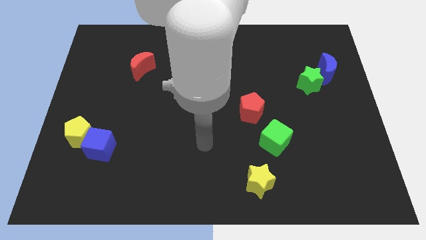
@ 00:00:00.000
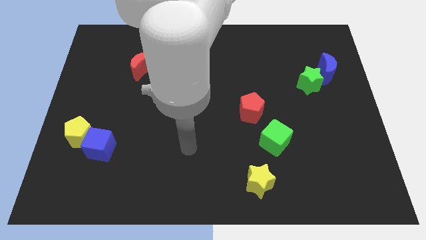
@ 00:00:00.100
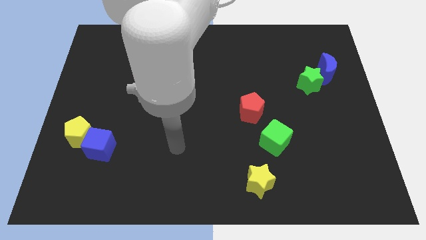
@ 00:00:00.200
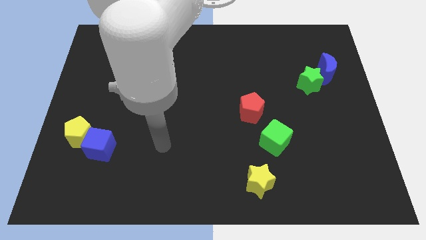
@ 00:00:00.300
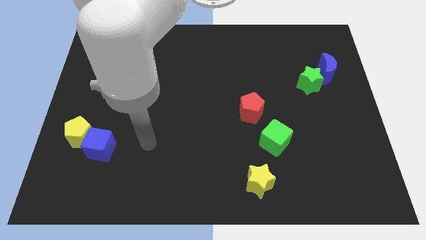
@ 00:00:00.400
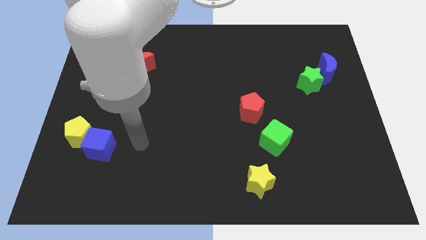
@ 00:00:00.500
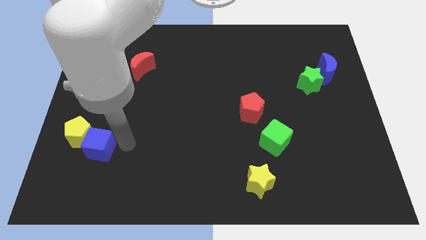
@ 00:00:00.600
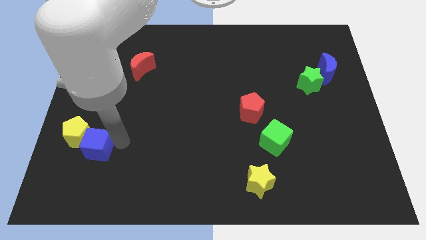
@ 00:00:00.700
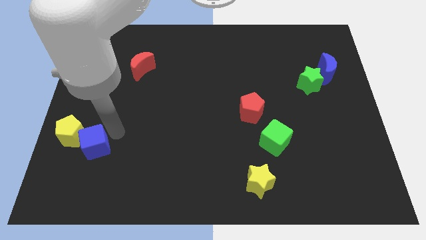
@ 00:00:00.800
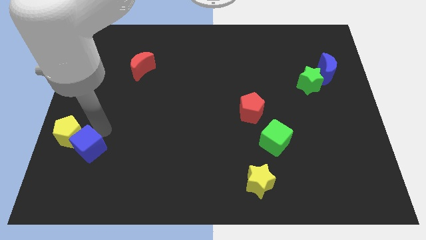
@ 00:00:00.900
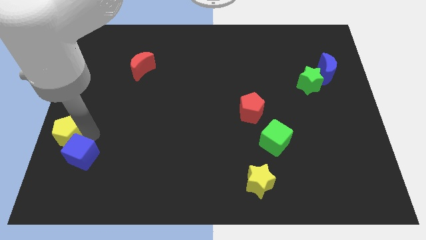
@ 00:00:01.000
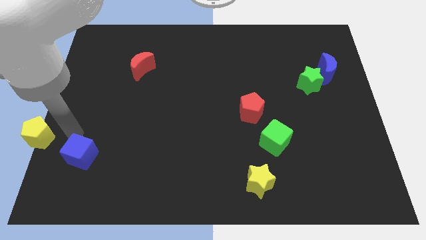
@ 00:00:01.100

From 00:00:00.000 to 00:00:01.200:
move the blue cube away from the yellow pentagon

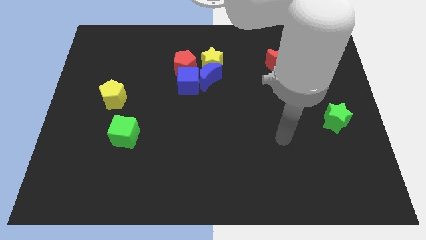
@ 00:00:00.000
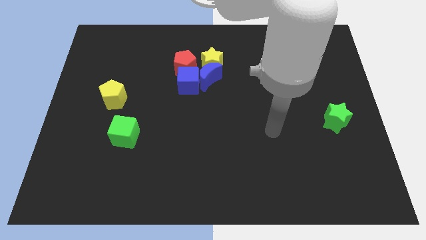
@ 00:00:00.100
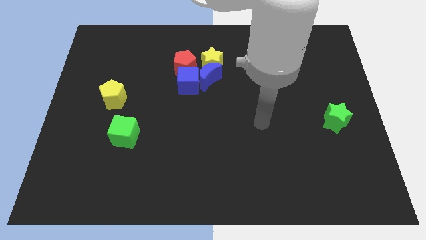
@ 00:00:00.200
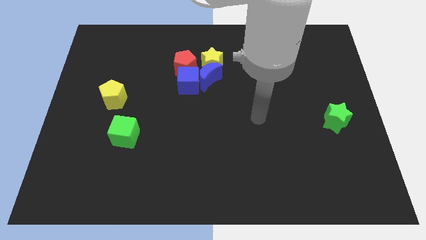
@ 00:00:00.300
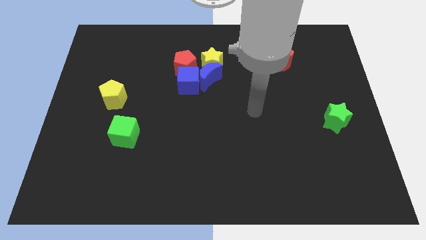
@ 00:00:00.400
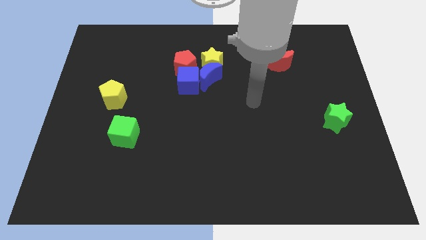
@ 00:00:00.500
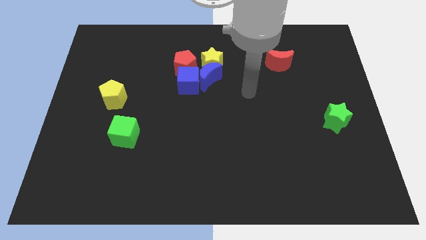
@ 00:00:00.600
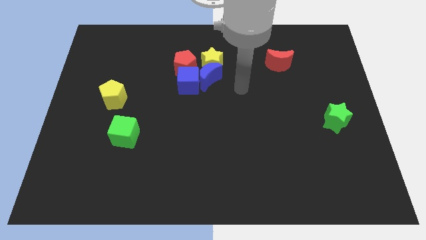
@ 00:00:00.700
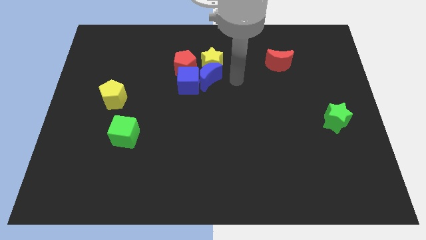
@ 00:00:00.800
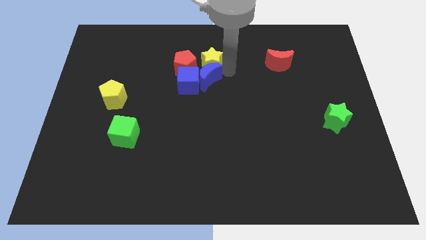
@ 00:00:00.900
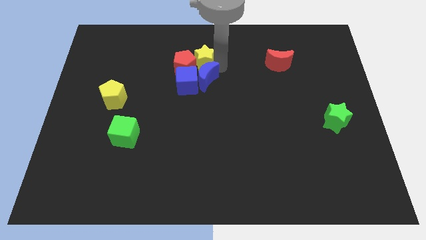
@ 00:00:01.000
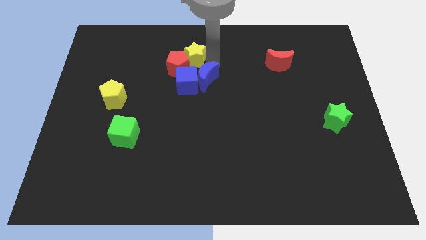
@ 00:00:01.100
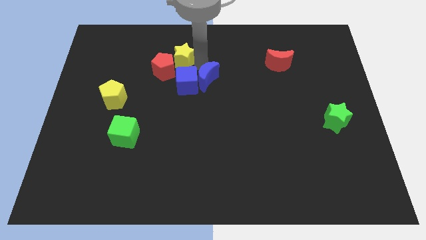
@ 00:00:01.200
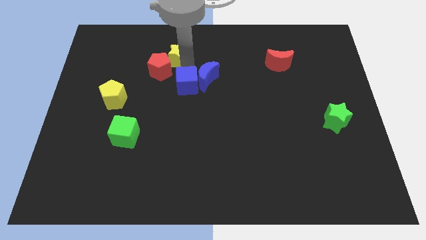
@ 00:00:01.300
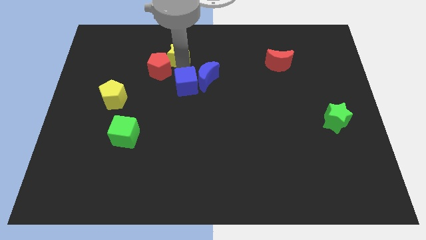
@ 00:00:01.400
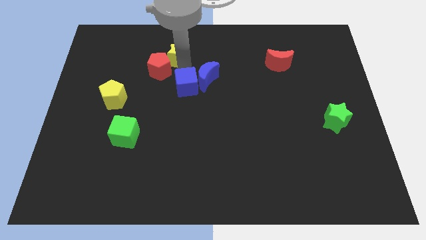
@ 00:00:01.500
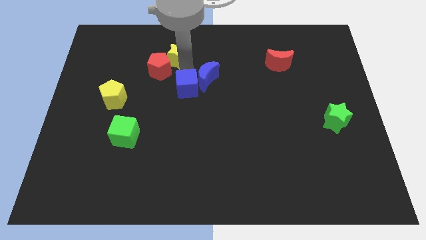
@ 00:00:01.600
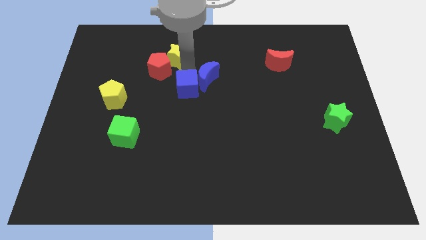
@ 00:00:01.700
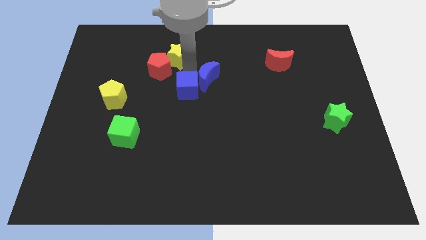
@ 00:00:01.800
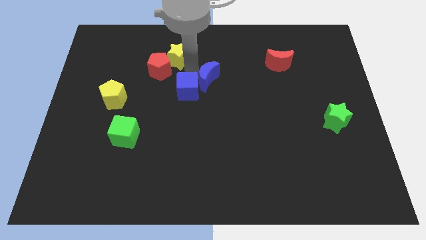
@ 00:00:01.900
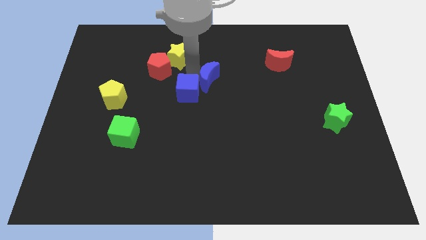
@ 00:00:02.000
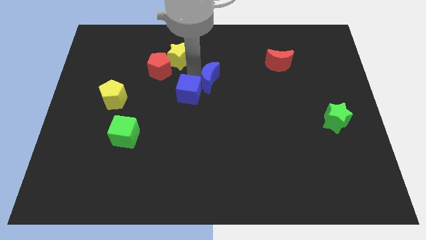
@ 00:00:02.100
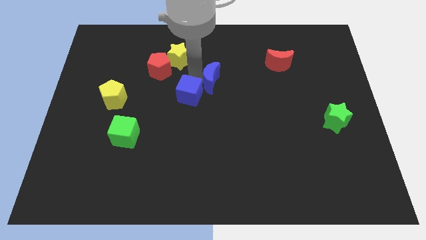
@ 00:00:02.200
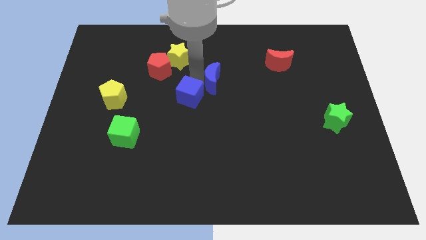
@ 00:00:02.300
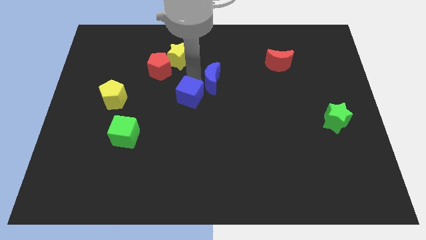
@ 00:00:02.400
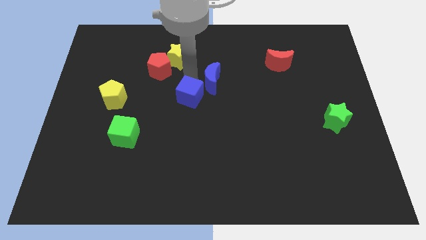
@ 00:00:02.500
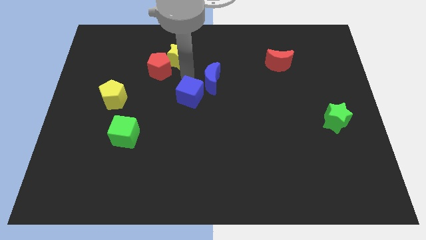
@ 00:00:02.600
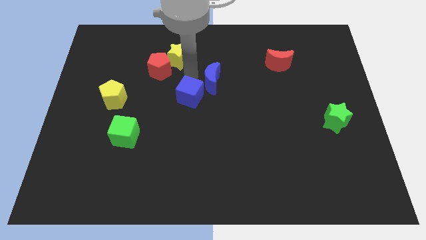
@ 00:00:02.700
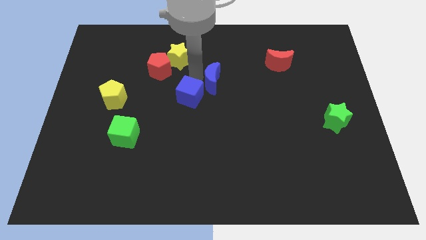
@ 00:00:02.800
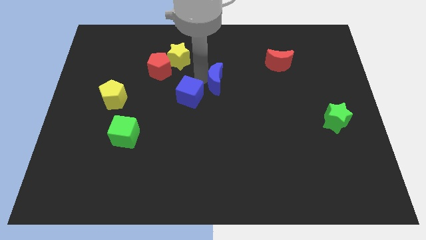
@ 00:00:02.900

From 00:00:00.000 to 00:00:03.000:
pull the blue moon apart from the yellow star, blue cube, and red pentagon

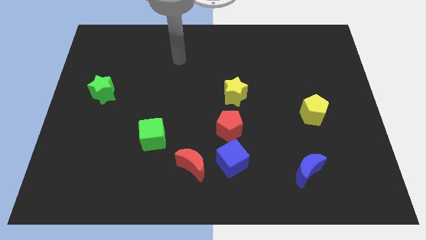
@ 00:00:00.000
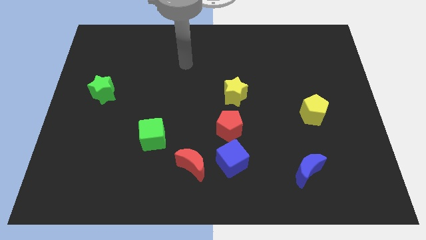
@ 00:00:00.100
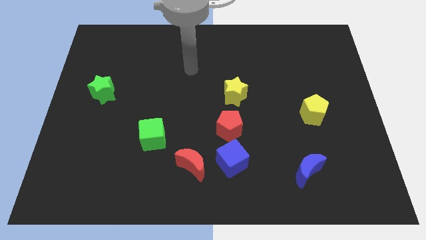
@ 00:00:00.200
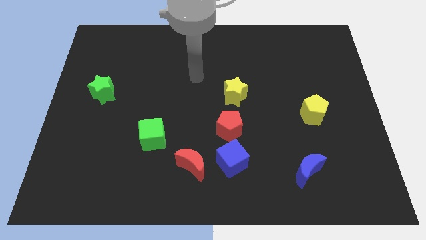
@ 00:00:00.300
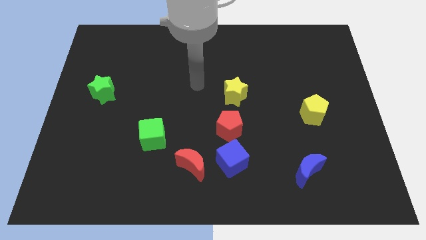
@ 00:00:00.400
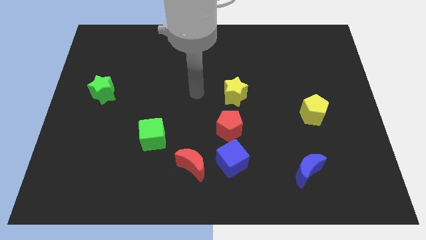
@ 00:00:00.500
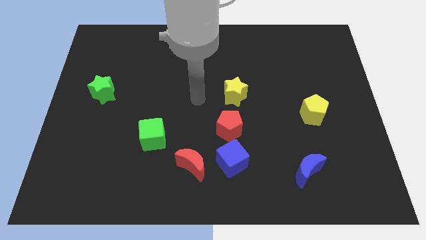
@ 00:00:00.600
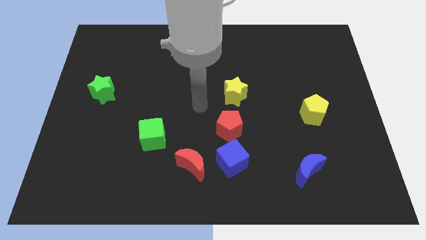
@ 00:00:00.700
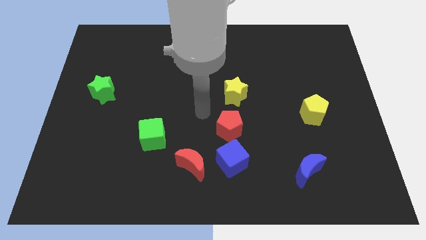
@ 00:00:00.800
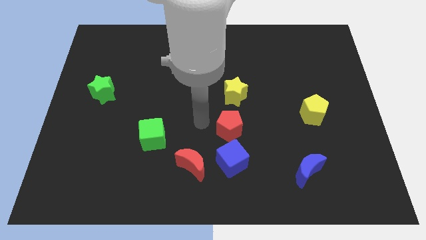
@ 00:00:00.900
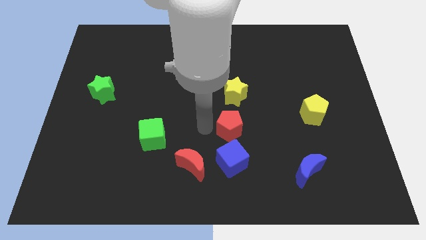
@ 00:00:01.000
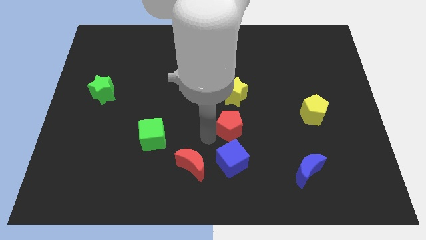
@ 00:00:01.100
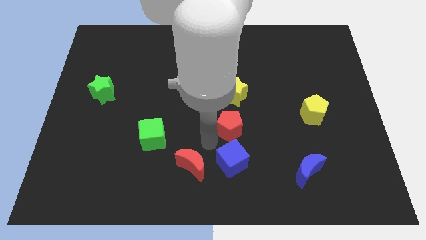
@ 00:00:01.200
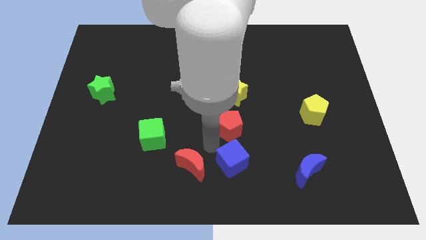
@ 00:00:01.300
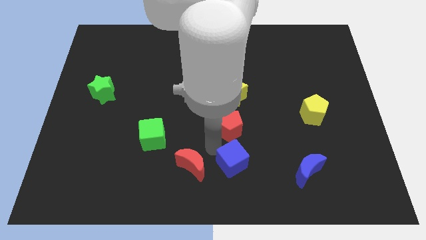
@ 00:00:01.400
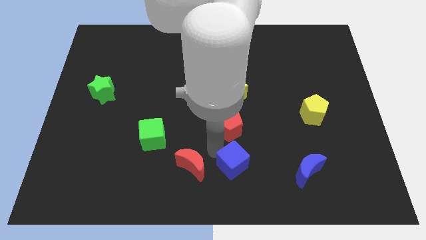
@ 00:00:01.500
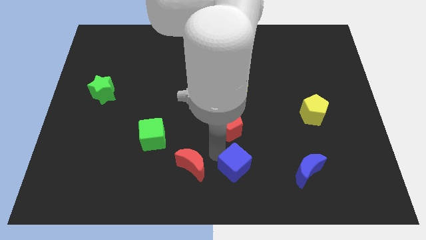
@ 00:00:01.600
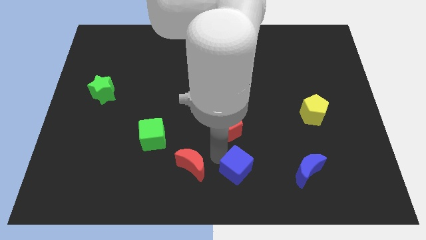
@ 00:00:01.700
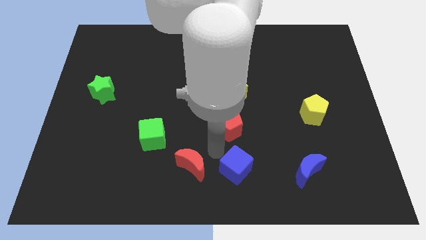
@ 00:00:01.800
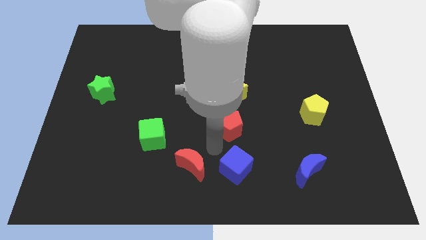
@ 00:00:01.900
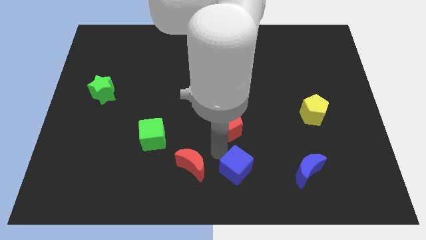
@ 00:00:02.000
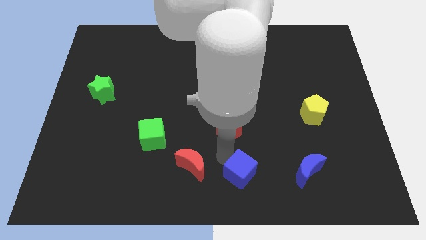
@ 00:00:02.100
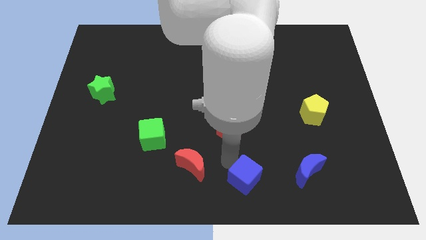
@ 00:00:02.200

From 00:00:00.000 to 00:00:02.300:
separate the blue cube from the red pentagon and red moon

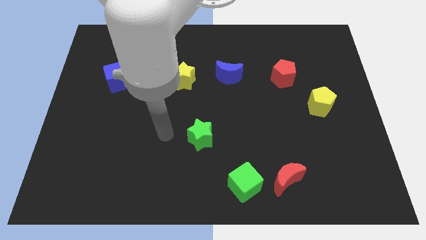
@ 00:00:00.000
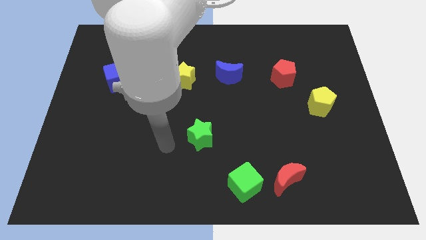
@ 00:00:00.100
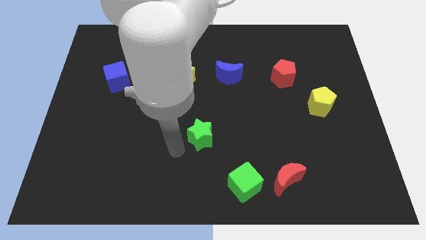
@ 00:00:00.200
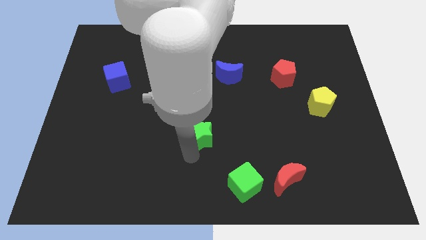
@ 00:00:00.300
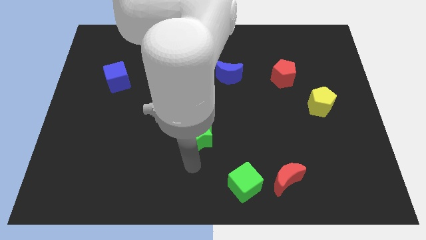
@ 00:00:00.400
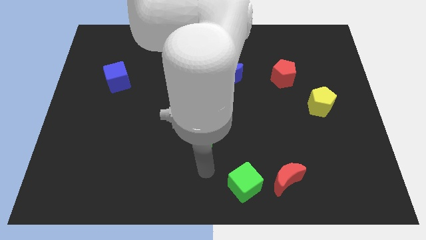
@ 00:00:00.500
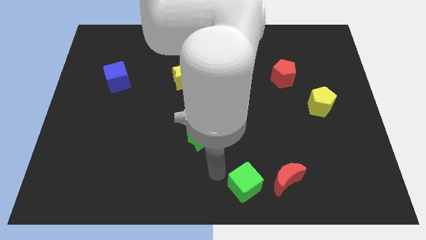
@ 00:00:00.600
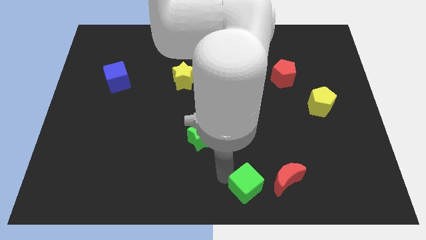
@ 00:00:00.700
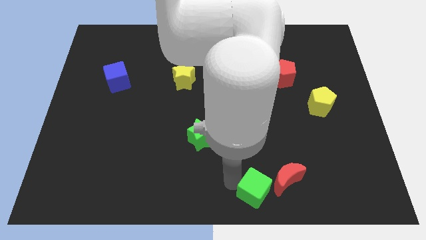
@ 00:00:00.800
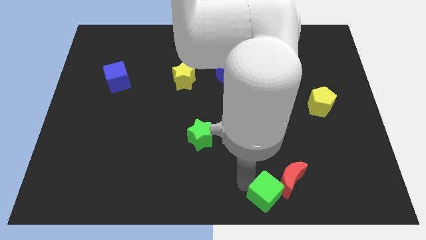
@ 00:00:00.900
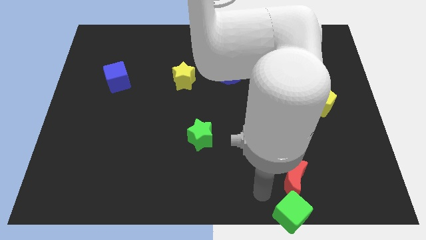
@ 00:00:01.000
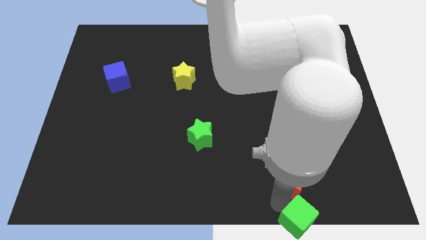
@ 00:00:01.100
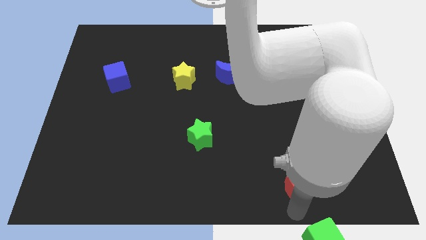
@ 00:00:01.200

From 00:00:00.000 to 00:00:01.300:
separate the red moon from the green cube

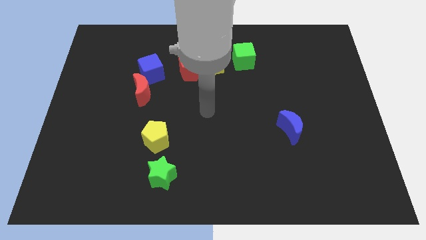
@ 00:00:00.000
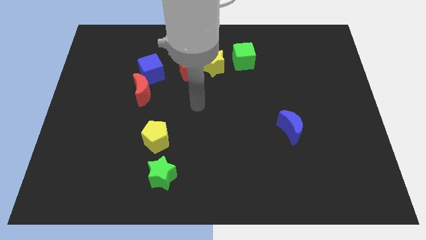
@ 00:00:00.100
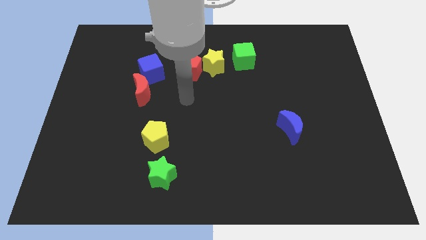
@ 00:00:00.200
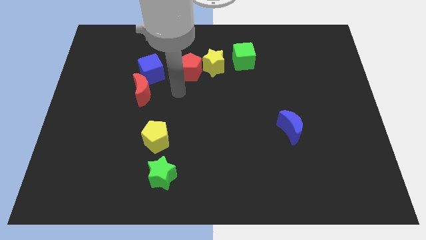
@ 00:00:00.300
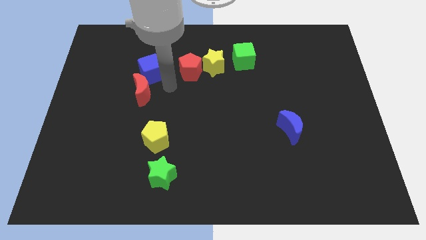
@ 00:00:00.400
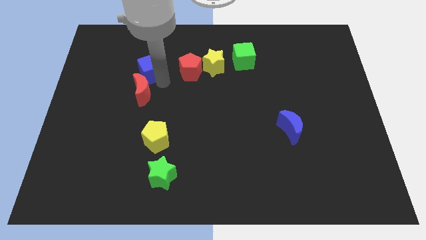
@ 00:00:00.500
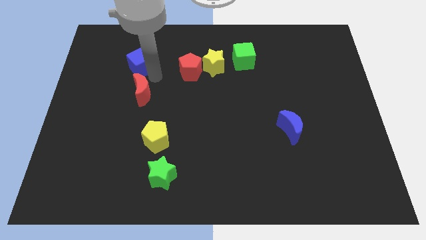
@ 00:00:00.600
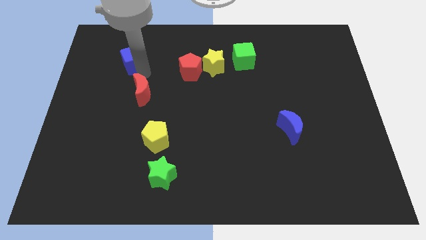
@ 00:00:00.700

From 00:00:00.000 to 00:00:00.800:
move the red moon away from the blue cube

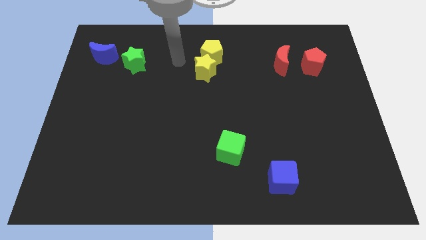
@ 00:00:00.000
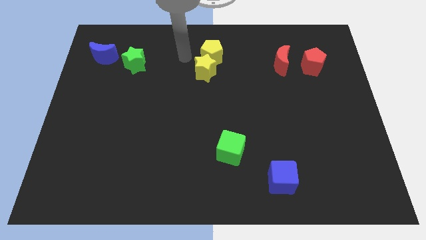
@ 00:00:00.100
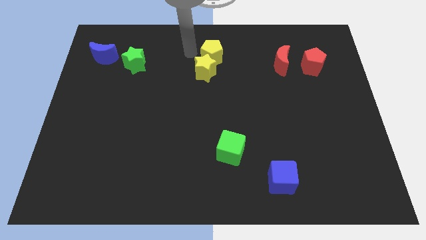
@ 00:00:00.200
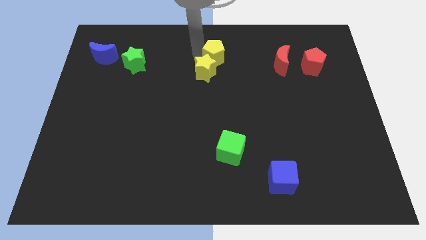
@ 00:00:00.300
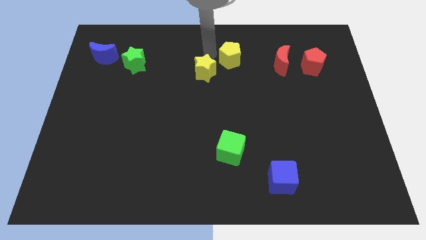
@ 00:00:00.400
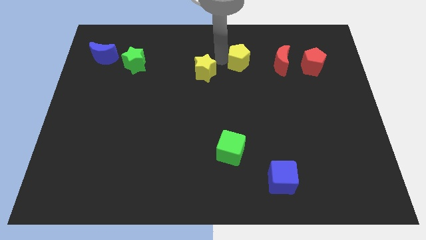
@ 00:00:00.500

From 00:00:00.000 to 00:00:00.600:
separate the yellow star from the yellow pentagon
